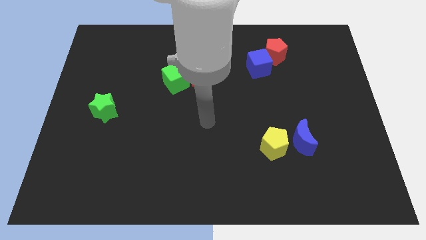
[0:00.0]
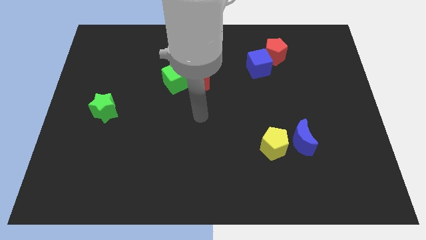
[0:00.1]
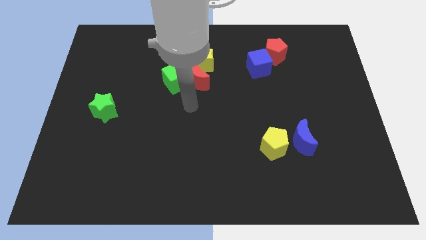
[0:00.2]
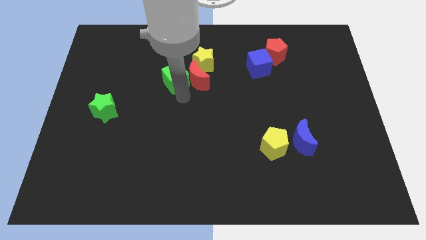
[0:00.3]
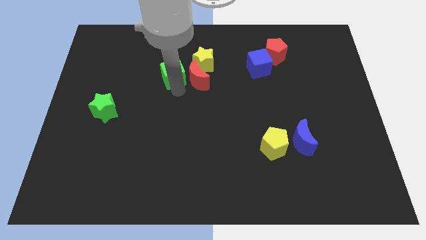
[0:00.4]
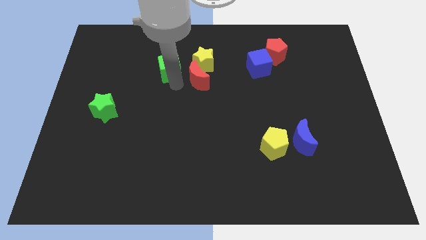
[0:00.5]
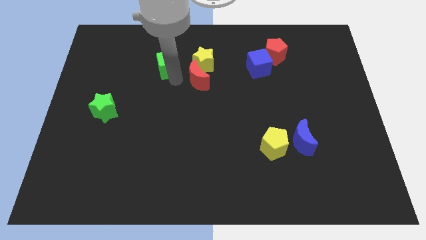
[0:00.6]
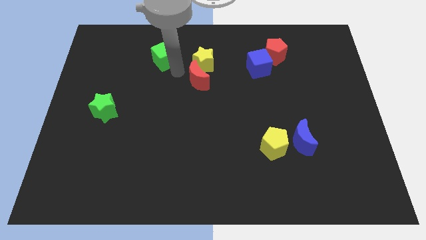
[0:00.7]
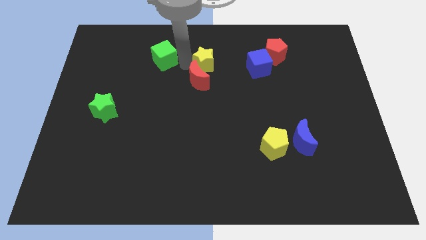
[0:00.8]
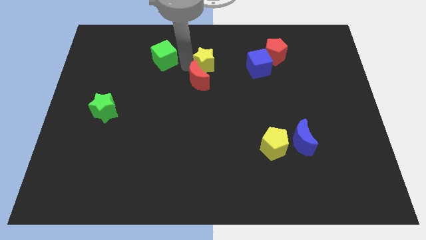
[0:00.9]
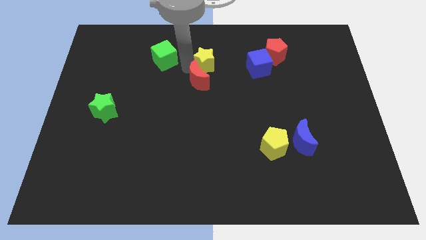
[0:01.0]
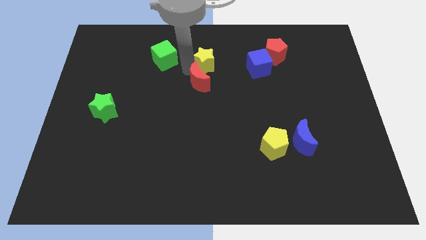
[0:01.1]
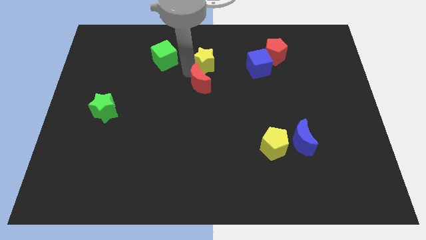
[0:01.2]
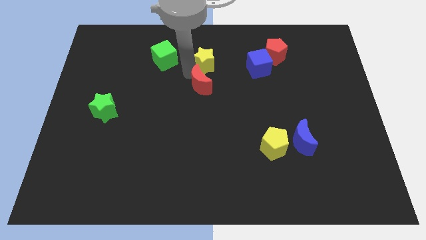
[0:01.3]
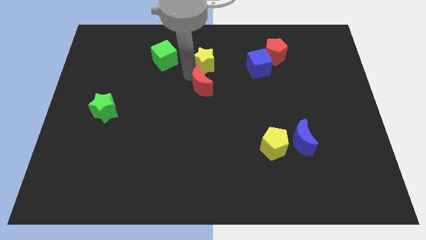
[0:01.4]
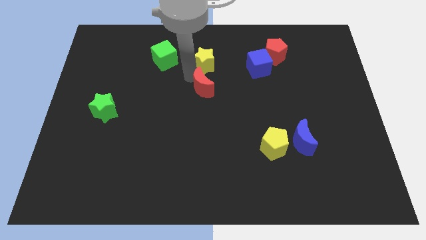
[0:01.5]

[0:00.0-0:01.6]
move the red moon away from the green cube and yellow star

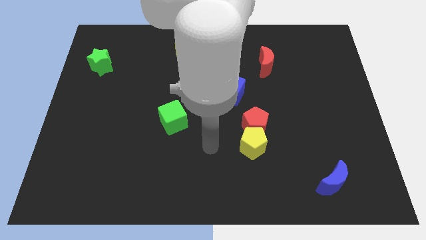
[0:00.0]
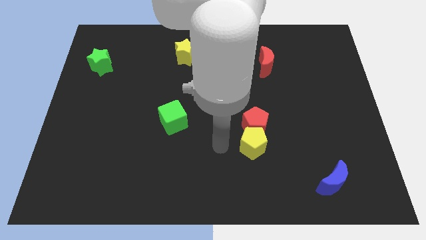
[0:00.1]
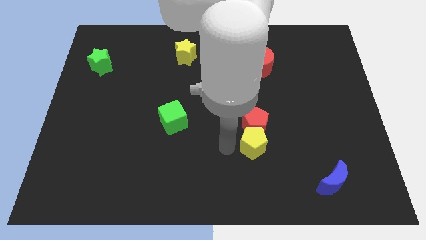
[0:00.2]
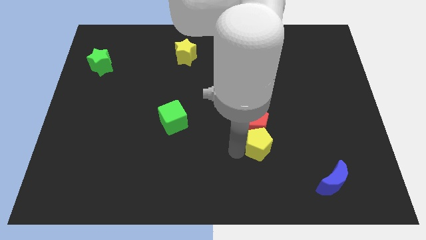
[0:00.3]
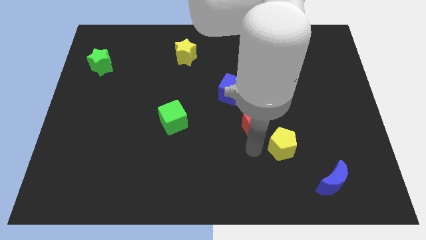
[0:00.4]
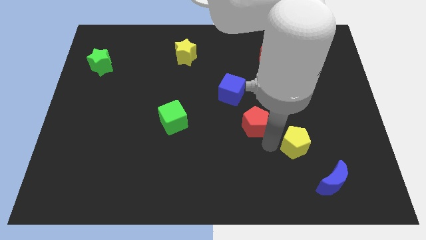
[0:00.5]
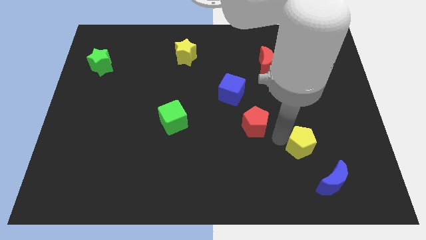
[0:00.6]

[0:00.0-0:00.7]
move the red pentagon away from the yellow pentagon

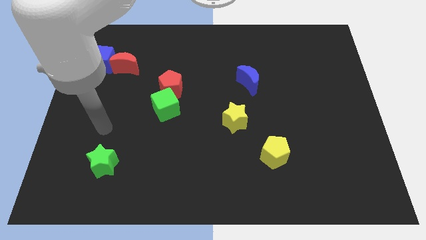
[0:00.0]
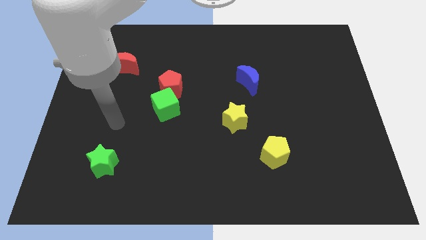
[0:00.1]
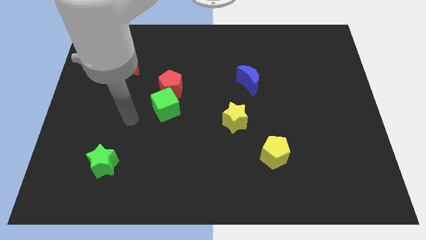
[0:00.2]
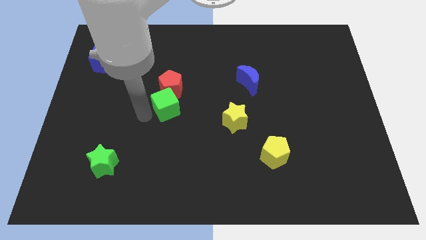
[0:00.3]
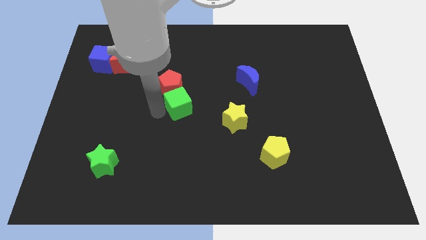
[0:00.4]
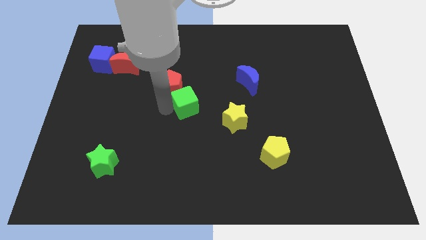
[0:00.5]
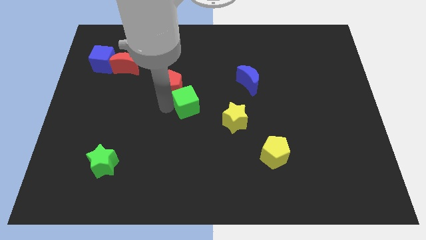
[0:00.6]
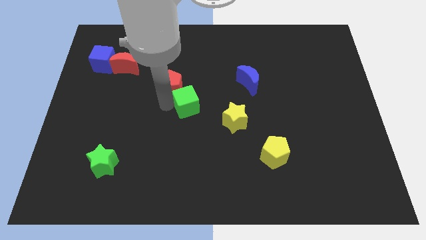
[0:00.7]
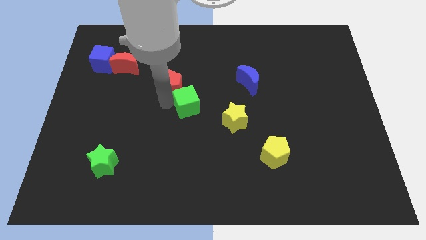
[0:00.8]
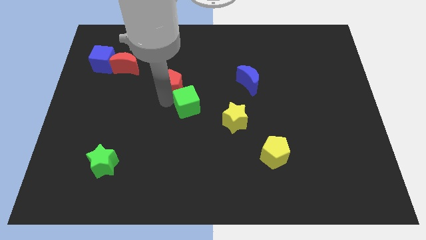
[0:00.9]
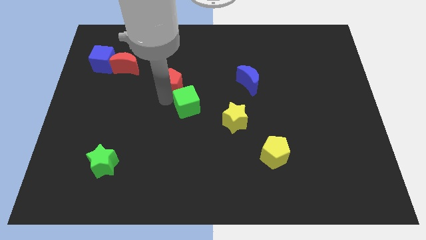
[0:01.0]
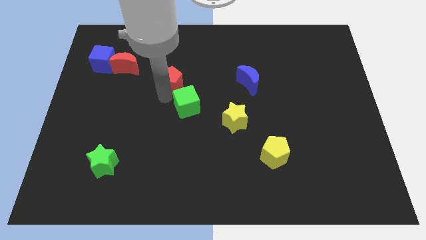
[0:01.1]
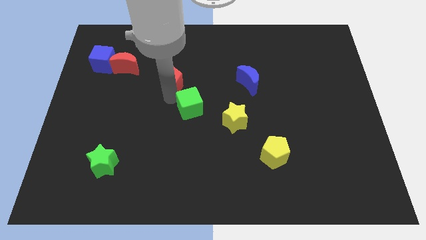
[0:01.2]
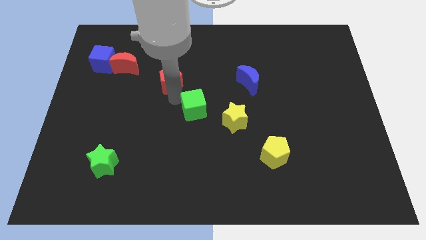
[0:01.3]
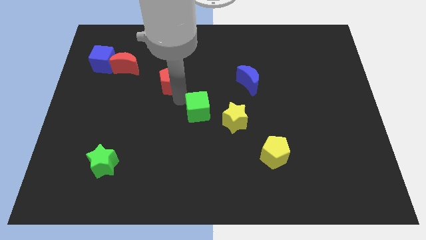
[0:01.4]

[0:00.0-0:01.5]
pull the red pentagon apart from the green cube

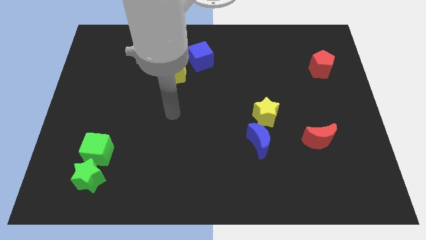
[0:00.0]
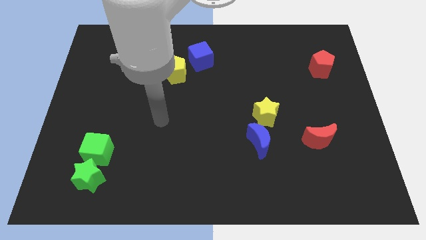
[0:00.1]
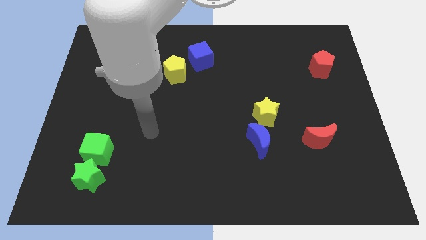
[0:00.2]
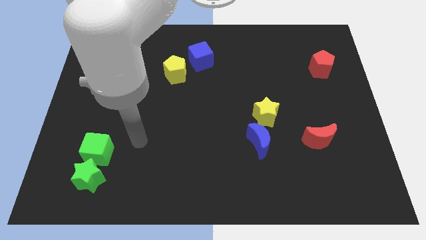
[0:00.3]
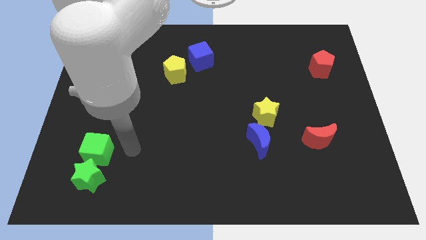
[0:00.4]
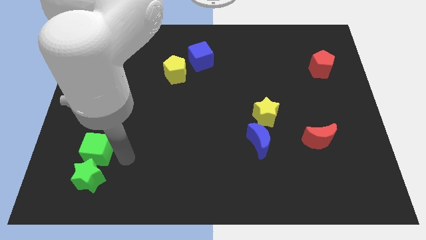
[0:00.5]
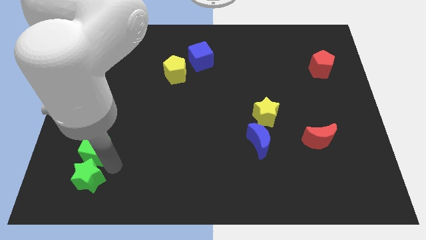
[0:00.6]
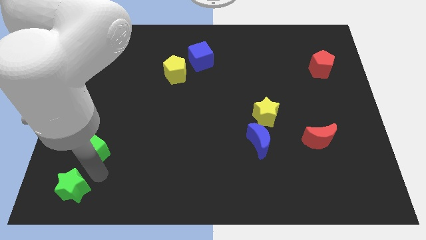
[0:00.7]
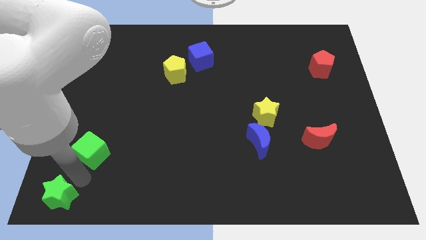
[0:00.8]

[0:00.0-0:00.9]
pull the green cube apart from the green star

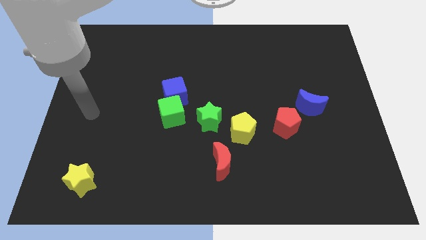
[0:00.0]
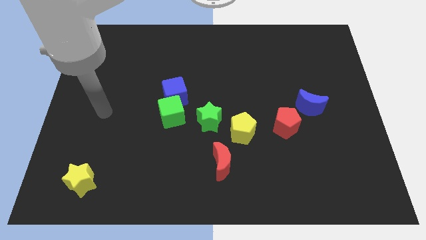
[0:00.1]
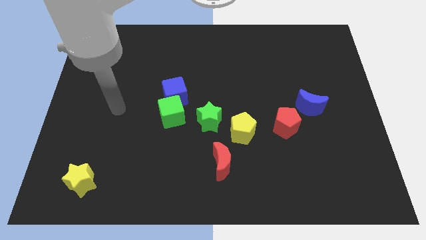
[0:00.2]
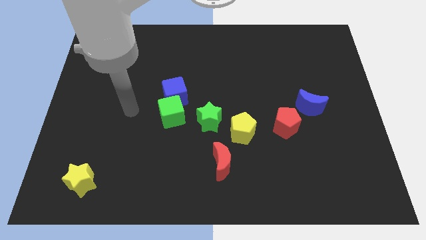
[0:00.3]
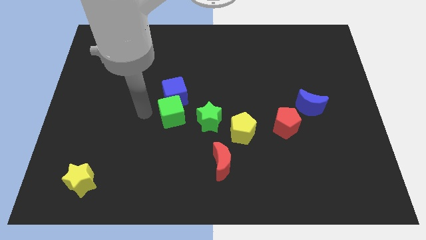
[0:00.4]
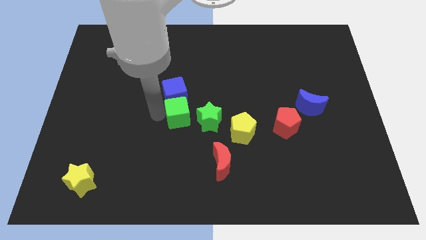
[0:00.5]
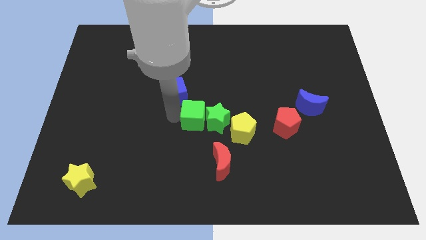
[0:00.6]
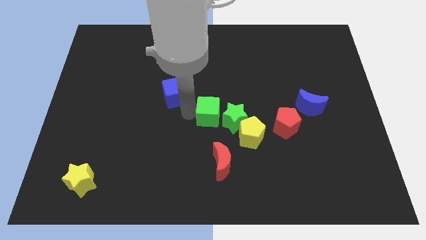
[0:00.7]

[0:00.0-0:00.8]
move the blue cube away from the green cube

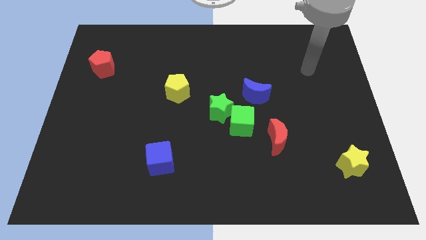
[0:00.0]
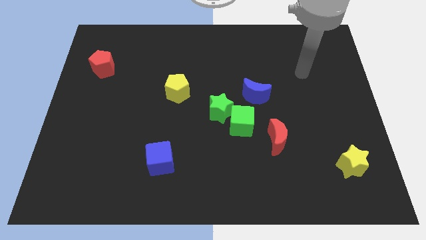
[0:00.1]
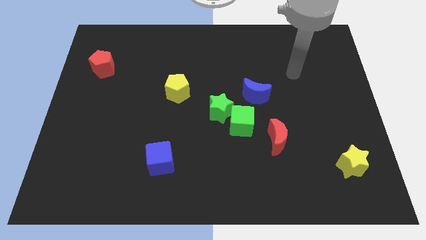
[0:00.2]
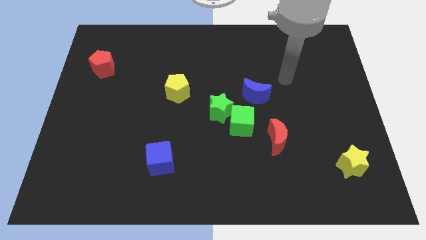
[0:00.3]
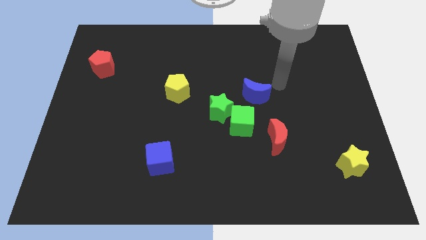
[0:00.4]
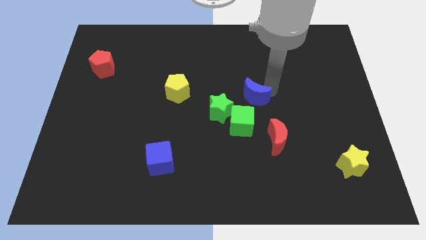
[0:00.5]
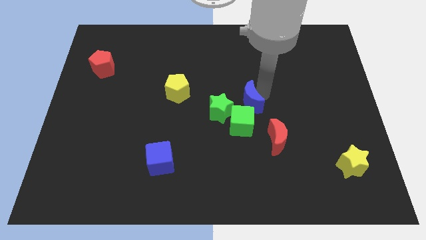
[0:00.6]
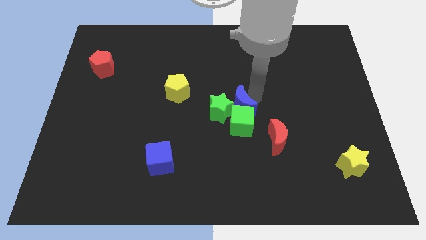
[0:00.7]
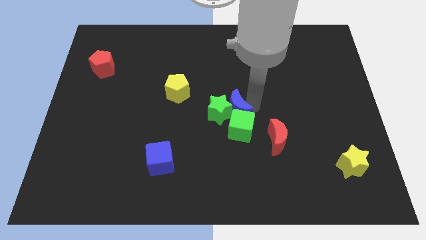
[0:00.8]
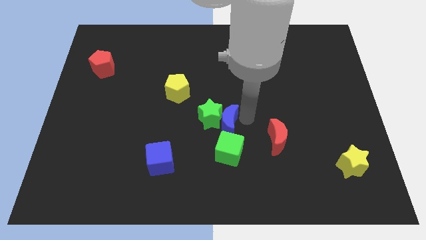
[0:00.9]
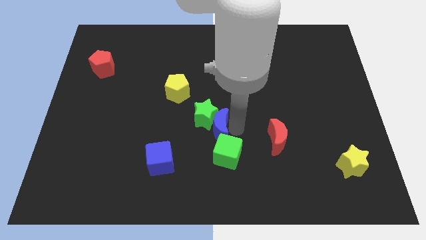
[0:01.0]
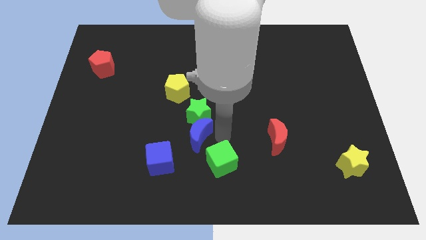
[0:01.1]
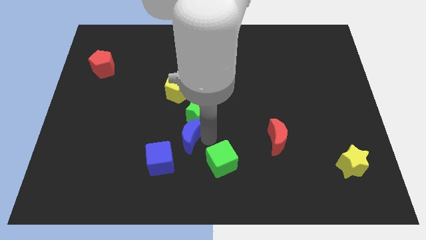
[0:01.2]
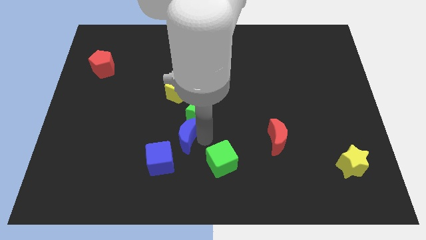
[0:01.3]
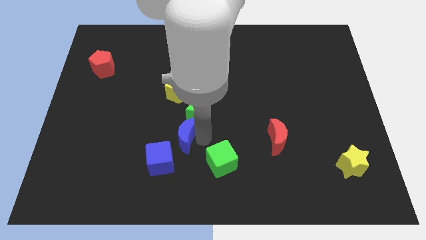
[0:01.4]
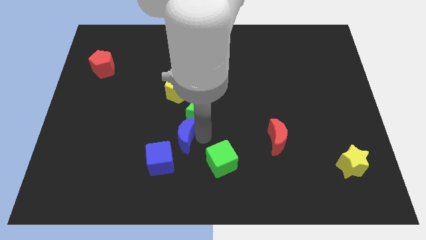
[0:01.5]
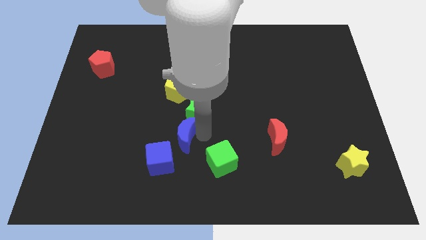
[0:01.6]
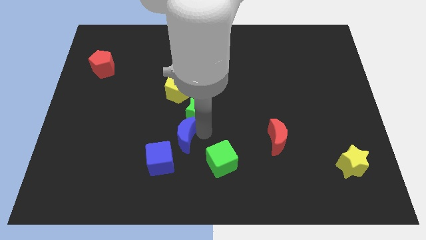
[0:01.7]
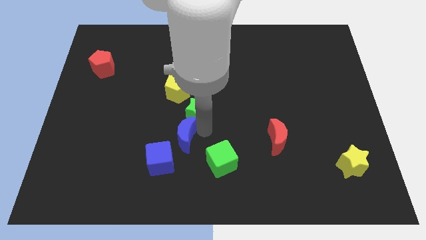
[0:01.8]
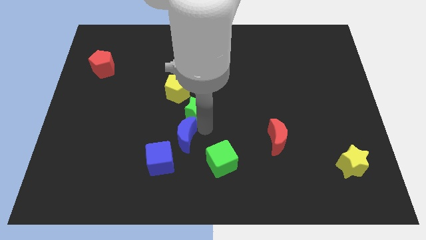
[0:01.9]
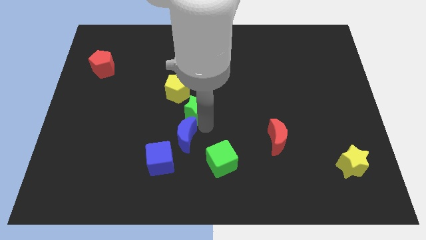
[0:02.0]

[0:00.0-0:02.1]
pull the green star apart from the green cube and blue moon

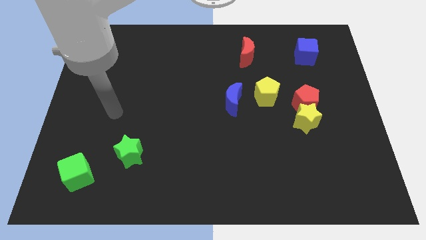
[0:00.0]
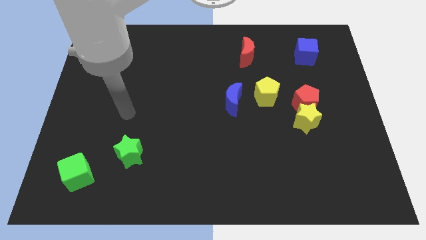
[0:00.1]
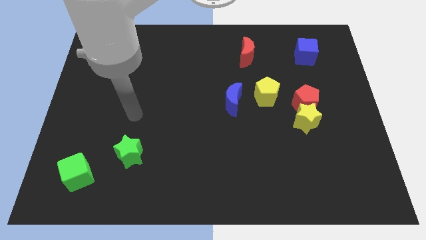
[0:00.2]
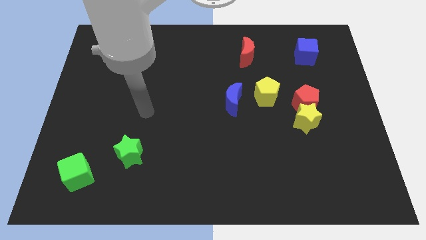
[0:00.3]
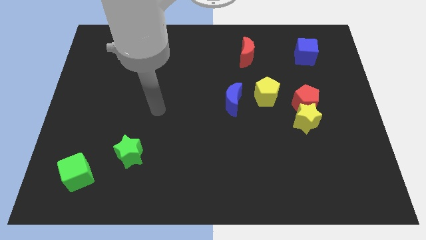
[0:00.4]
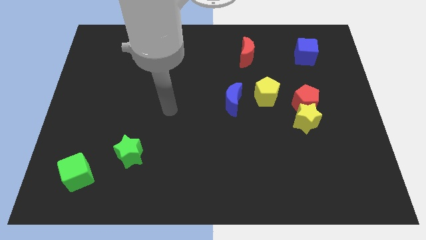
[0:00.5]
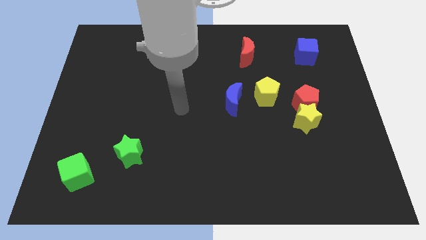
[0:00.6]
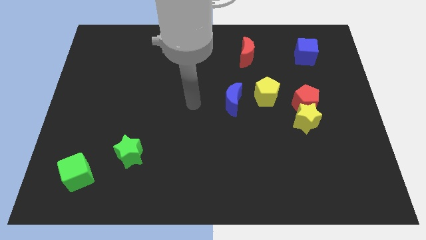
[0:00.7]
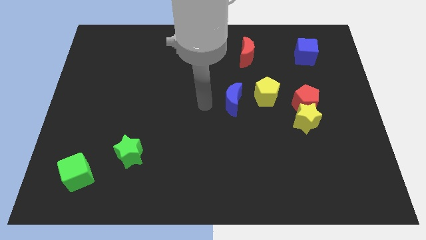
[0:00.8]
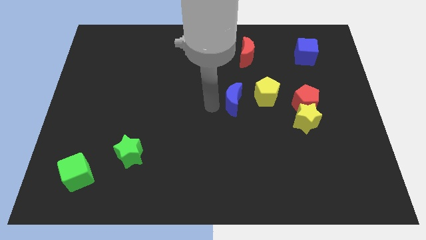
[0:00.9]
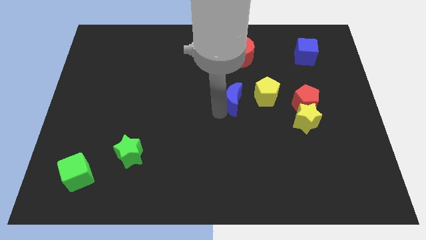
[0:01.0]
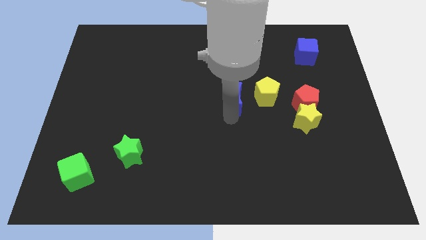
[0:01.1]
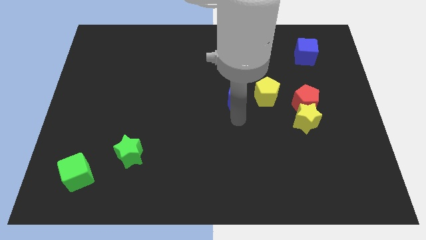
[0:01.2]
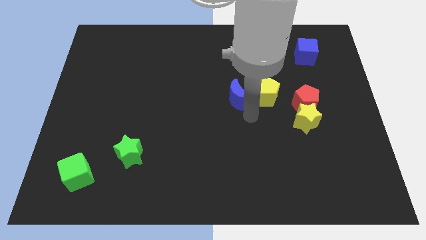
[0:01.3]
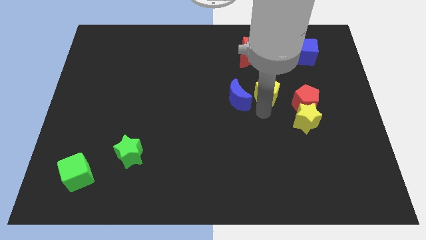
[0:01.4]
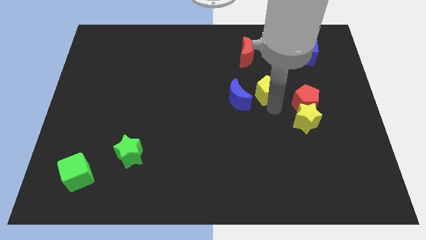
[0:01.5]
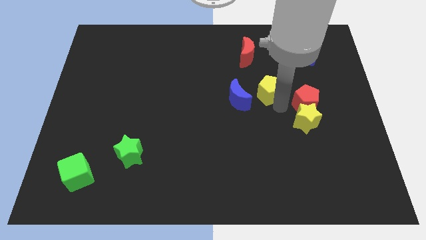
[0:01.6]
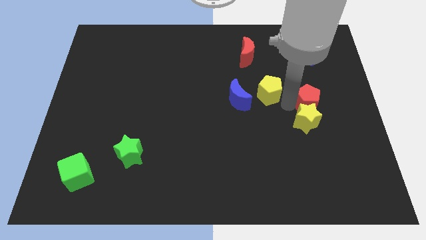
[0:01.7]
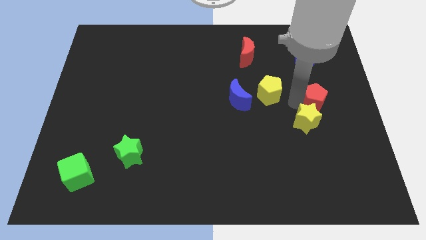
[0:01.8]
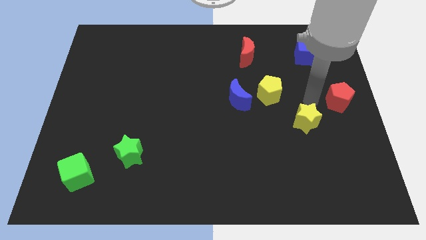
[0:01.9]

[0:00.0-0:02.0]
separate the yellow star from the red pentagon
